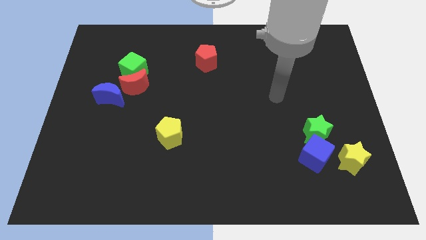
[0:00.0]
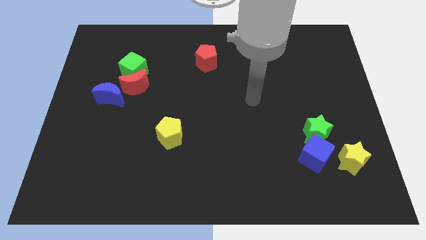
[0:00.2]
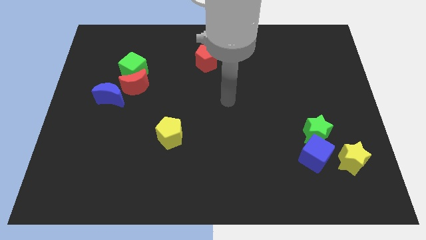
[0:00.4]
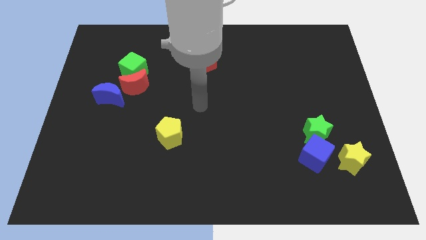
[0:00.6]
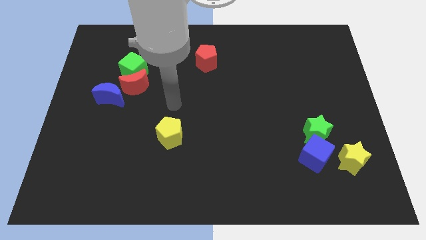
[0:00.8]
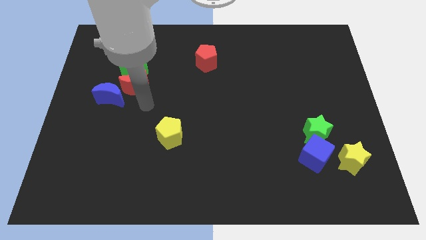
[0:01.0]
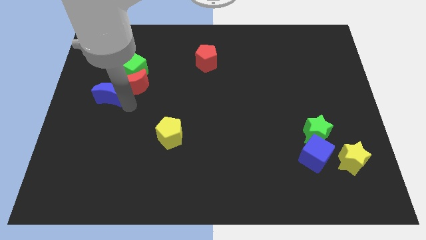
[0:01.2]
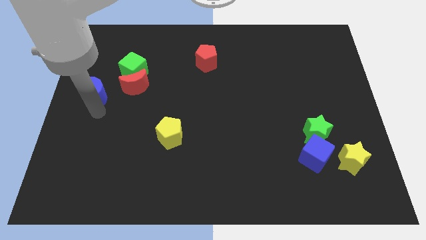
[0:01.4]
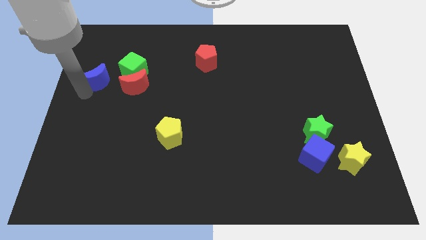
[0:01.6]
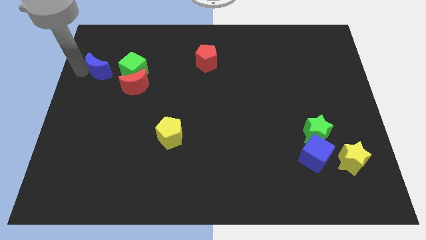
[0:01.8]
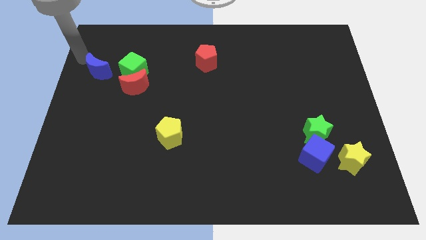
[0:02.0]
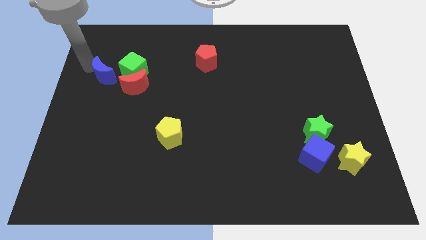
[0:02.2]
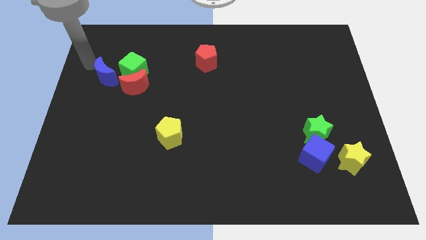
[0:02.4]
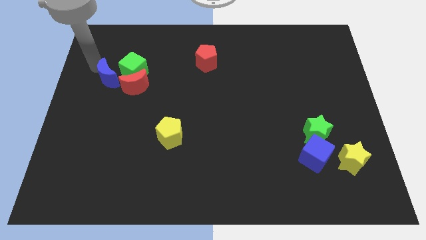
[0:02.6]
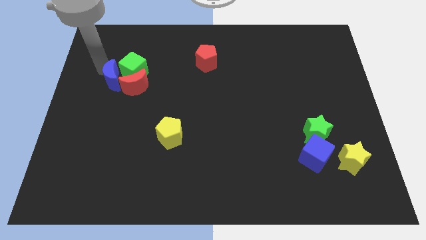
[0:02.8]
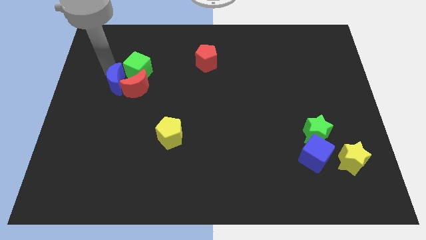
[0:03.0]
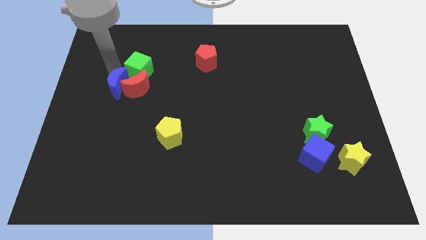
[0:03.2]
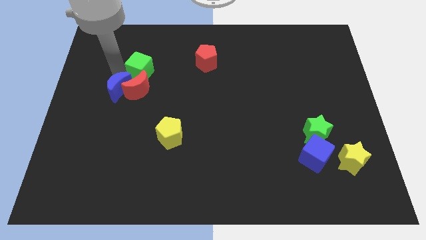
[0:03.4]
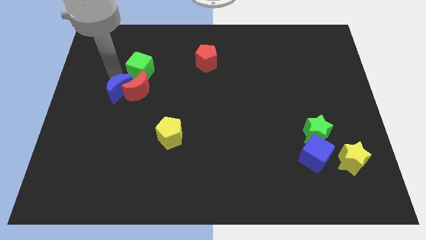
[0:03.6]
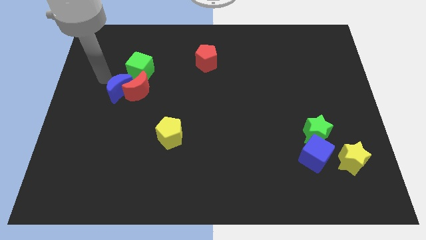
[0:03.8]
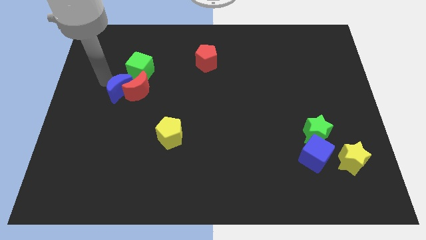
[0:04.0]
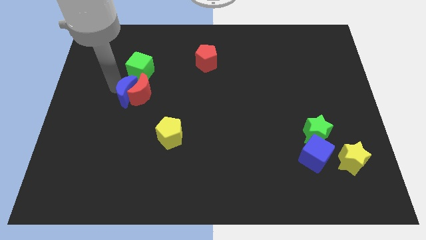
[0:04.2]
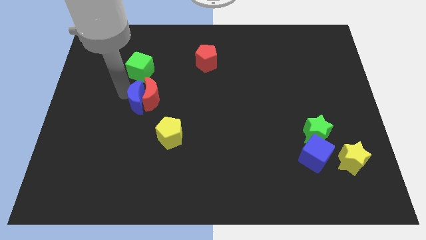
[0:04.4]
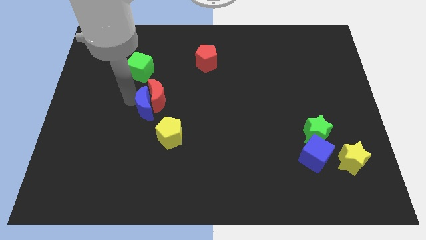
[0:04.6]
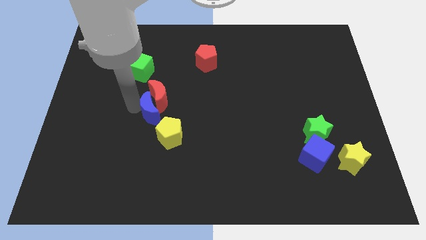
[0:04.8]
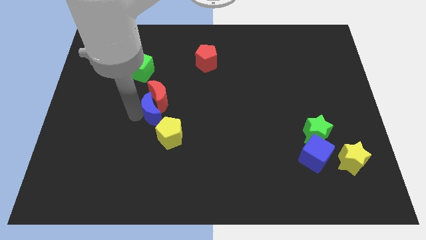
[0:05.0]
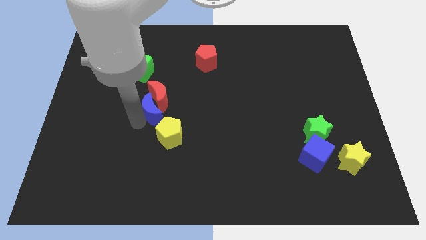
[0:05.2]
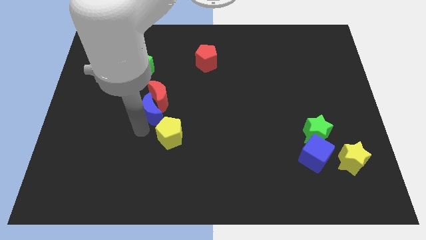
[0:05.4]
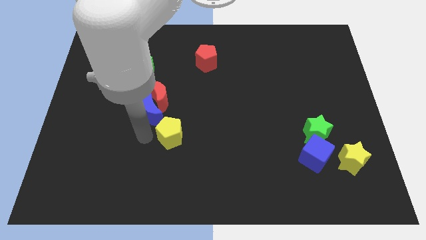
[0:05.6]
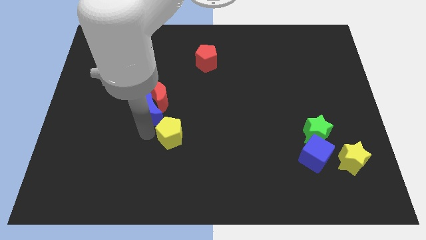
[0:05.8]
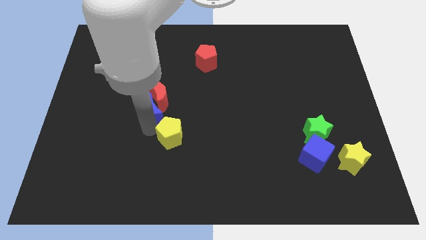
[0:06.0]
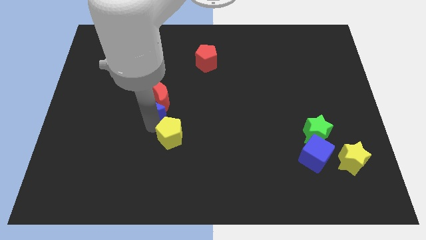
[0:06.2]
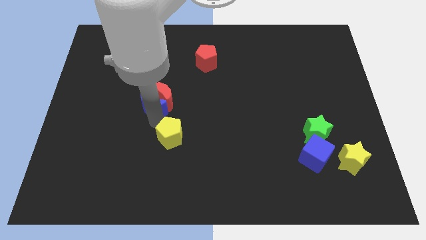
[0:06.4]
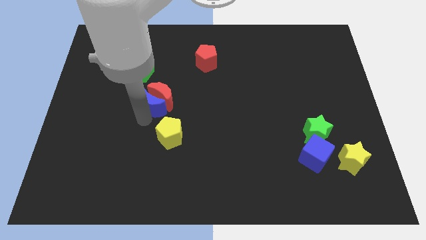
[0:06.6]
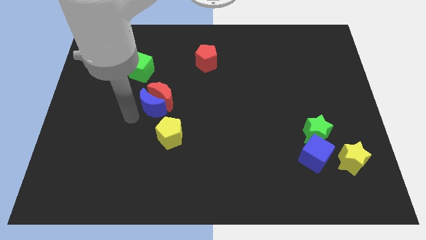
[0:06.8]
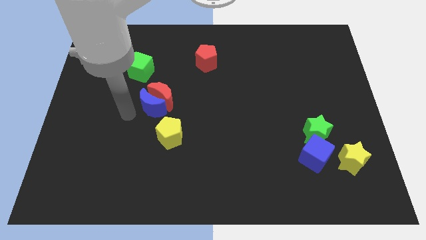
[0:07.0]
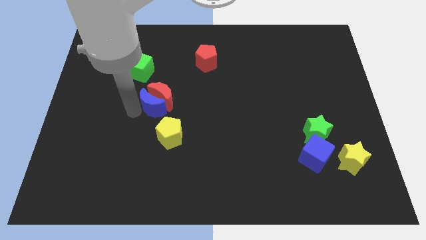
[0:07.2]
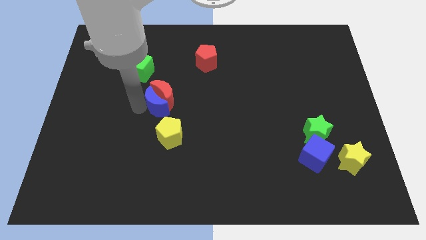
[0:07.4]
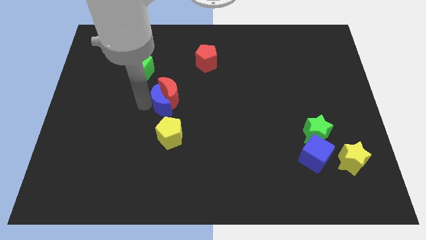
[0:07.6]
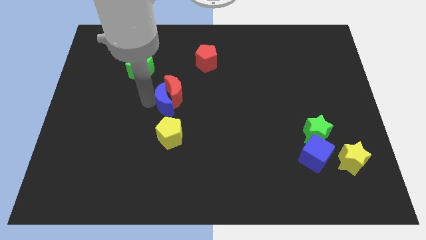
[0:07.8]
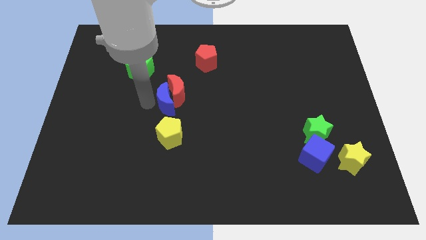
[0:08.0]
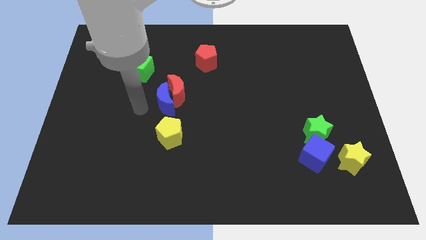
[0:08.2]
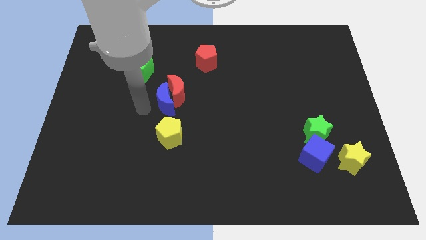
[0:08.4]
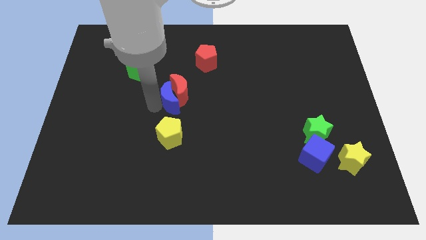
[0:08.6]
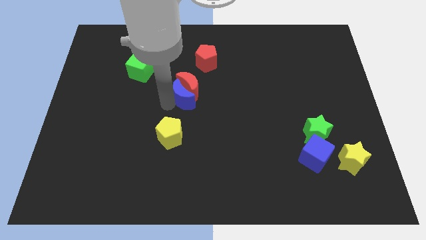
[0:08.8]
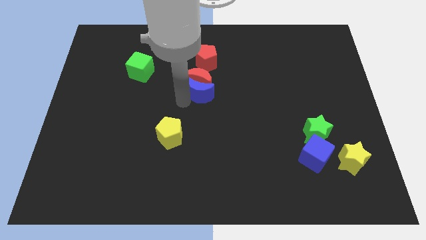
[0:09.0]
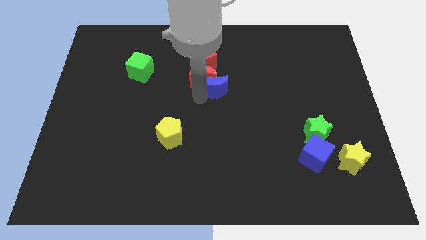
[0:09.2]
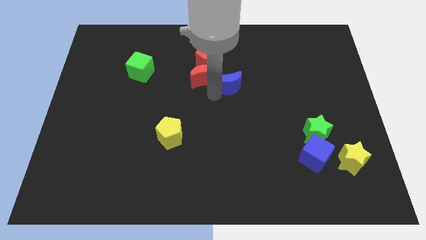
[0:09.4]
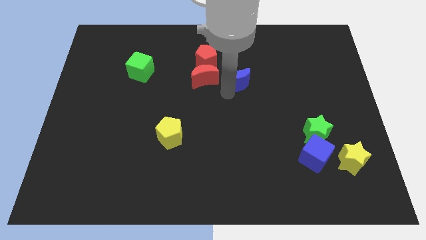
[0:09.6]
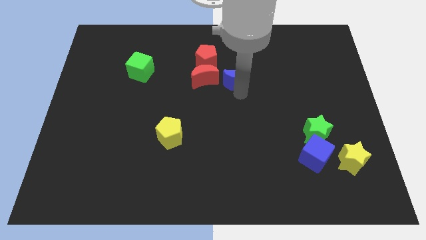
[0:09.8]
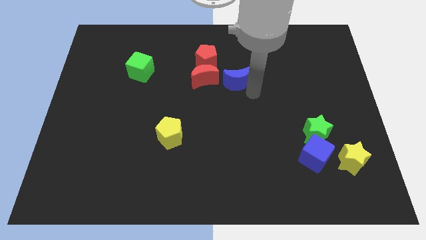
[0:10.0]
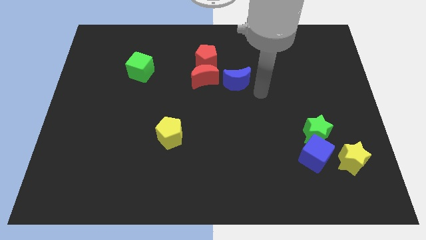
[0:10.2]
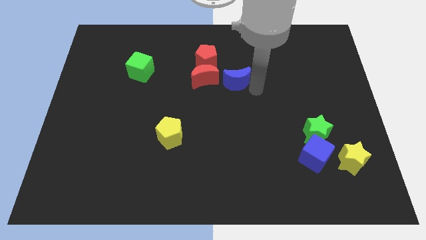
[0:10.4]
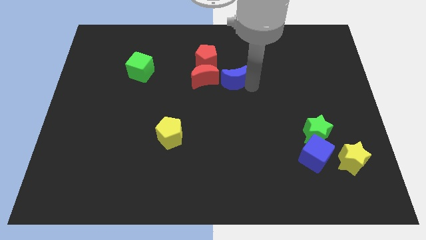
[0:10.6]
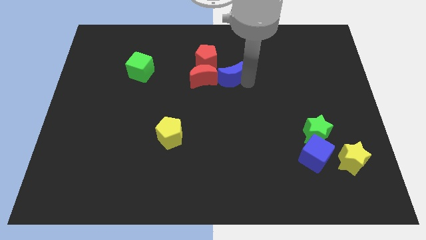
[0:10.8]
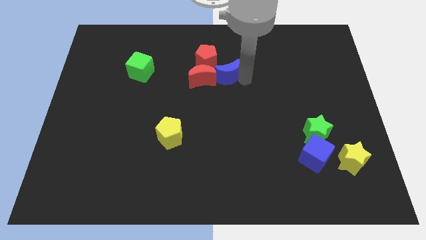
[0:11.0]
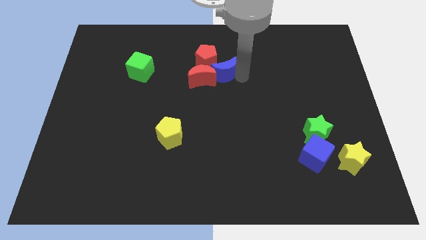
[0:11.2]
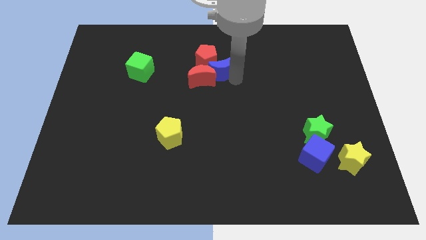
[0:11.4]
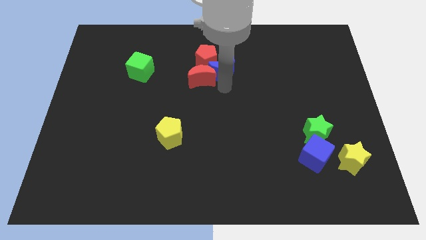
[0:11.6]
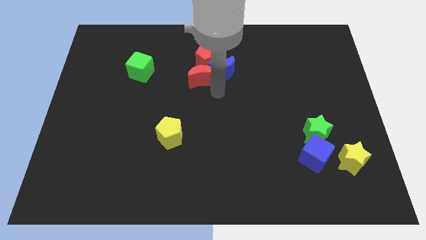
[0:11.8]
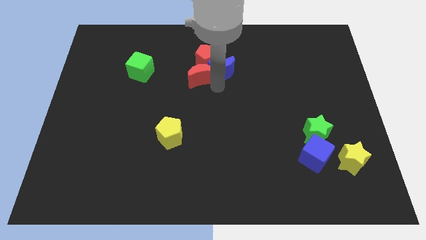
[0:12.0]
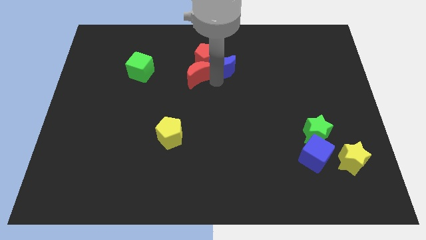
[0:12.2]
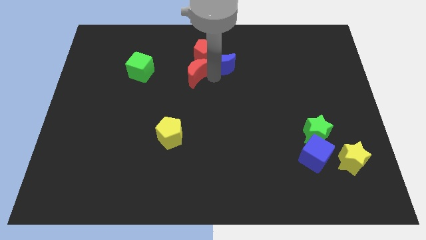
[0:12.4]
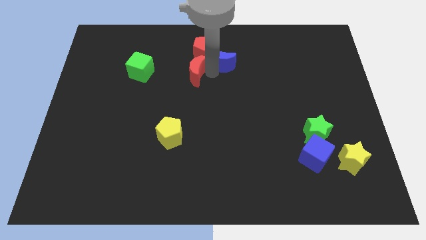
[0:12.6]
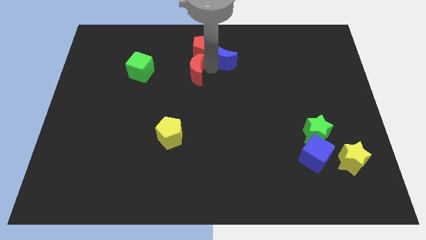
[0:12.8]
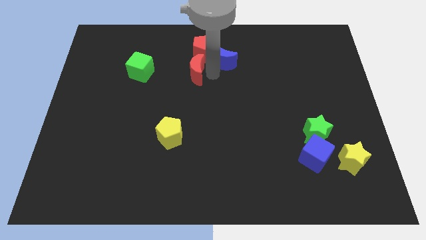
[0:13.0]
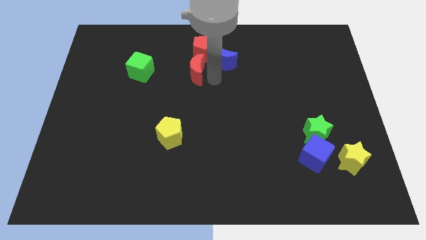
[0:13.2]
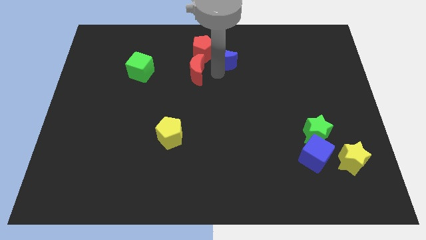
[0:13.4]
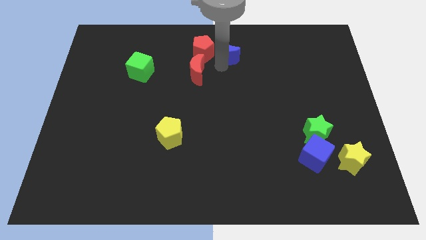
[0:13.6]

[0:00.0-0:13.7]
put the blue moon to the top side
